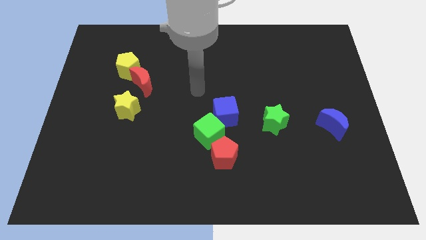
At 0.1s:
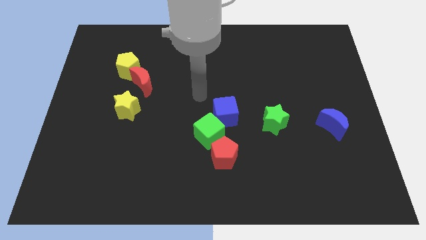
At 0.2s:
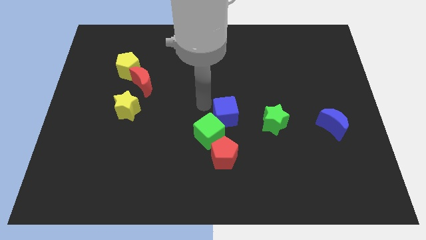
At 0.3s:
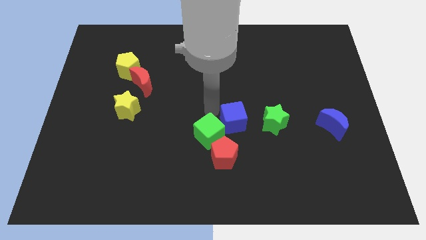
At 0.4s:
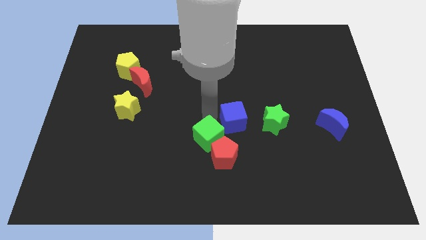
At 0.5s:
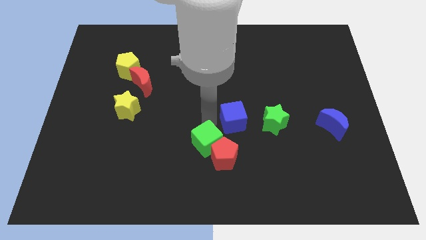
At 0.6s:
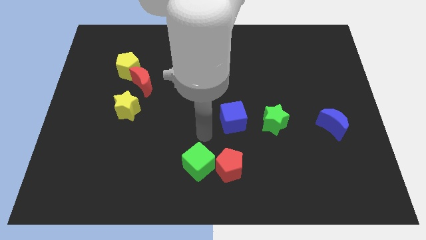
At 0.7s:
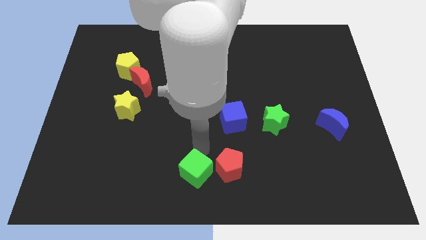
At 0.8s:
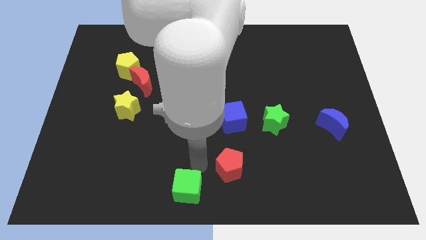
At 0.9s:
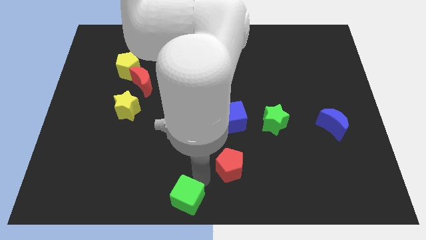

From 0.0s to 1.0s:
separate the red pentagon from the green cube

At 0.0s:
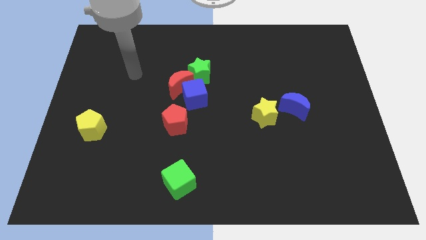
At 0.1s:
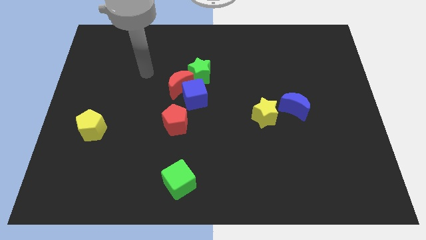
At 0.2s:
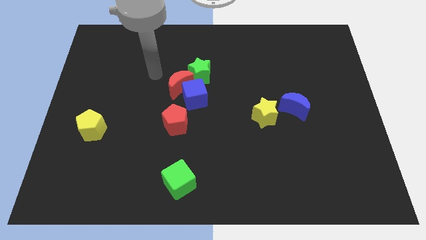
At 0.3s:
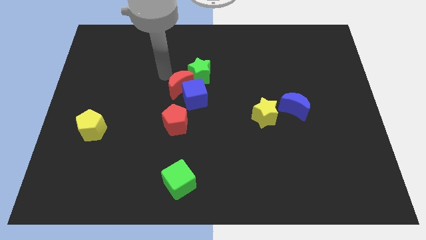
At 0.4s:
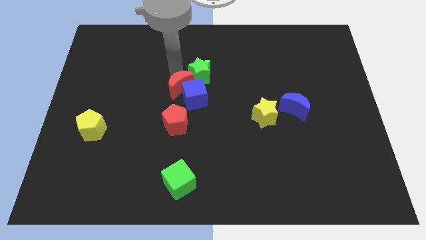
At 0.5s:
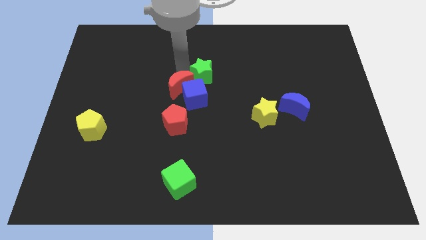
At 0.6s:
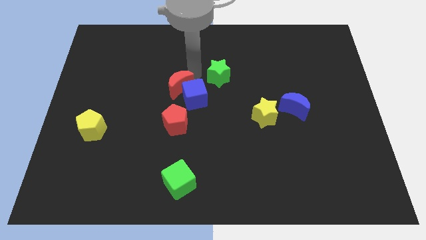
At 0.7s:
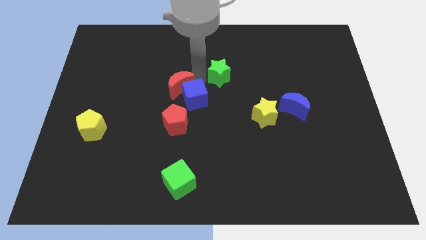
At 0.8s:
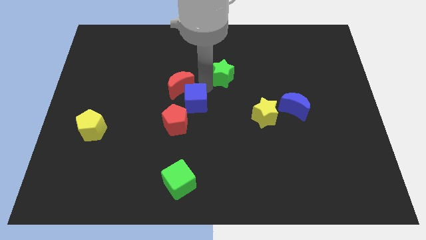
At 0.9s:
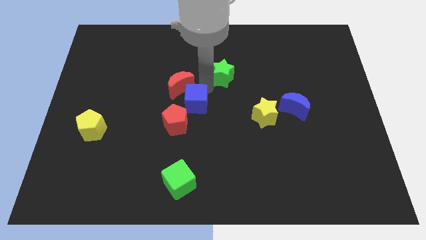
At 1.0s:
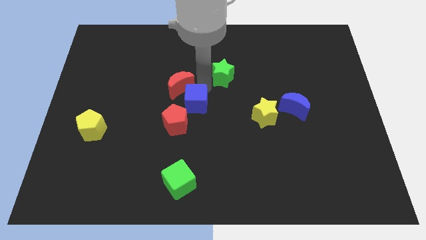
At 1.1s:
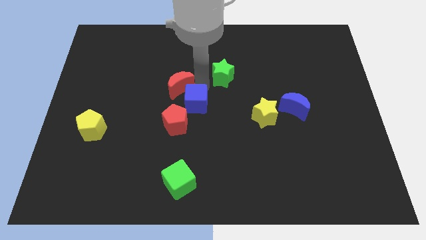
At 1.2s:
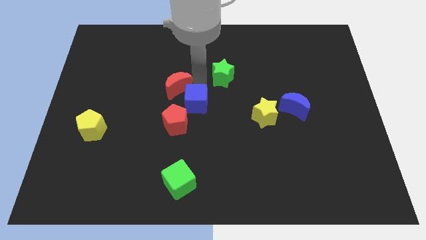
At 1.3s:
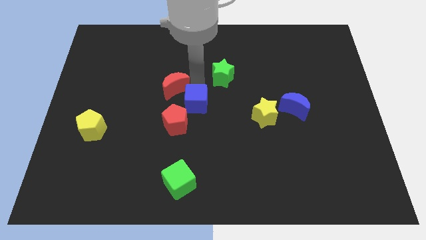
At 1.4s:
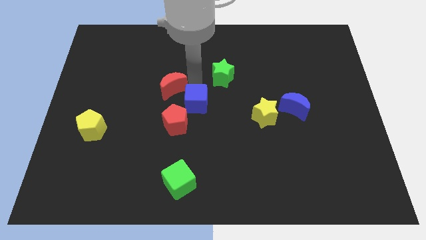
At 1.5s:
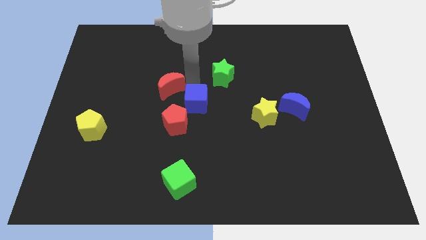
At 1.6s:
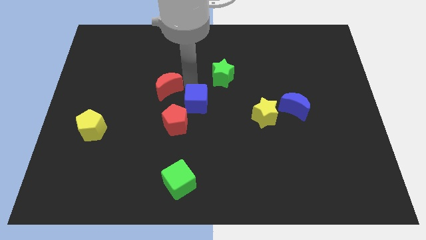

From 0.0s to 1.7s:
move the red moon away from the blue cube and green star

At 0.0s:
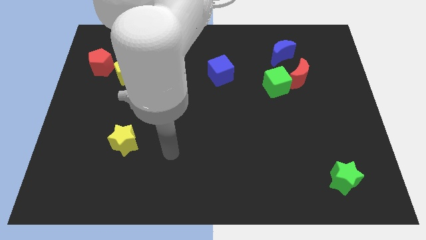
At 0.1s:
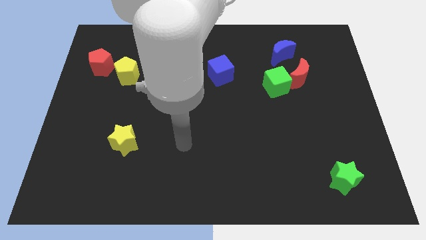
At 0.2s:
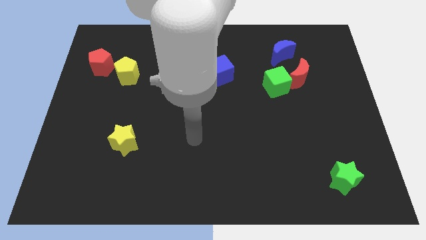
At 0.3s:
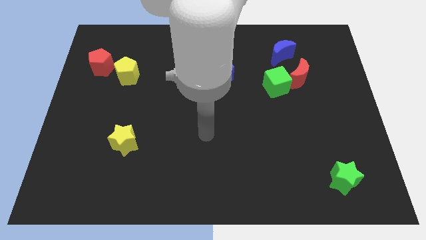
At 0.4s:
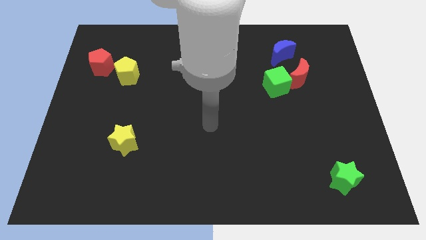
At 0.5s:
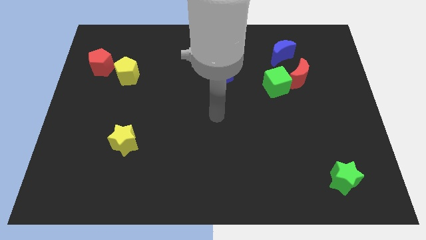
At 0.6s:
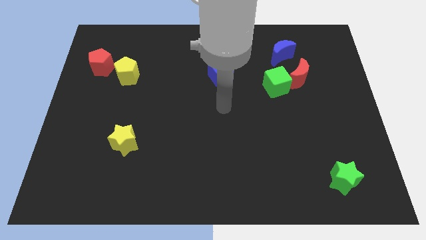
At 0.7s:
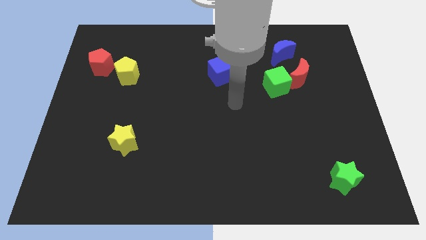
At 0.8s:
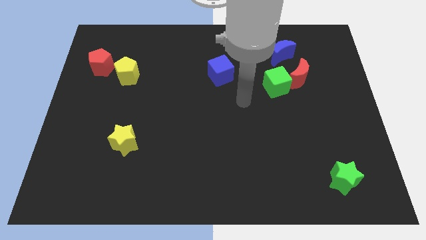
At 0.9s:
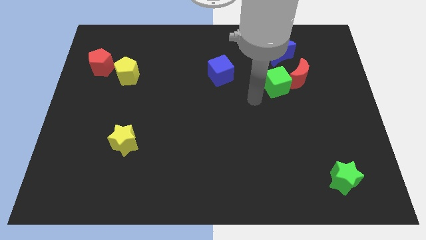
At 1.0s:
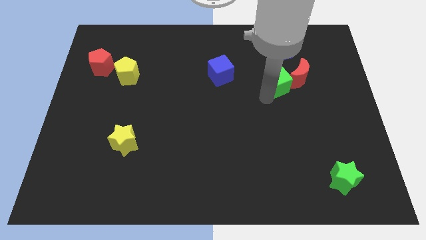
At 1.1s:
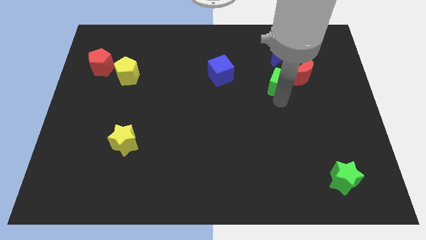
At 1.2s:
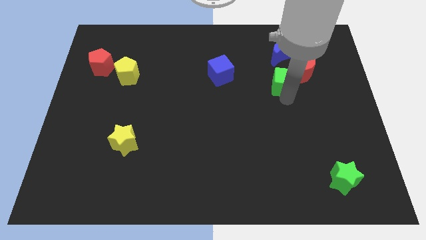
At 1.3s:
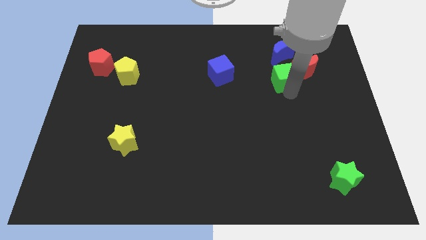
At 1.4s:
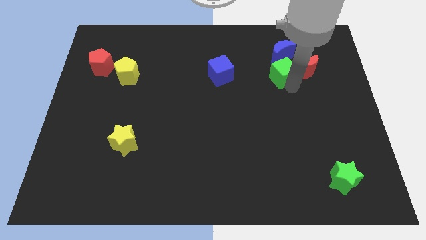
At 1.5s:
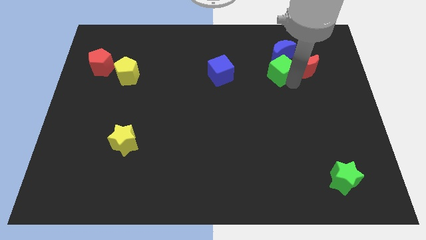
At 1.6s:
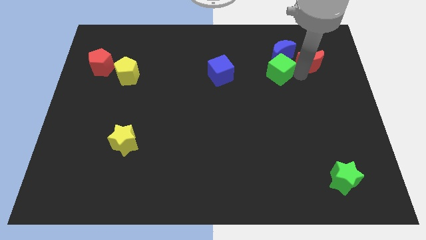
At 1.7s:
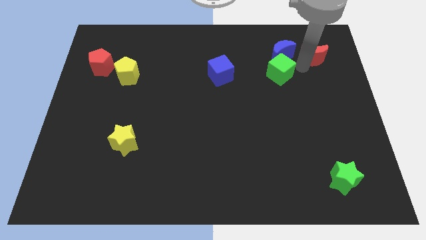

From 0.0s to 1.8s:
pull the green cube apart from the red moon

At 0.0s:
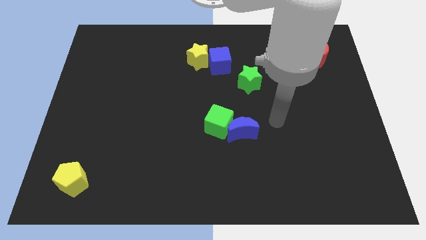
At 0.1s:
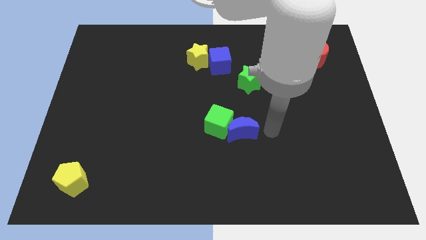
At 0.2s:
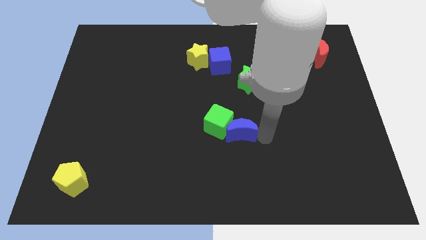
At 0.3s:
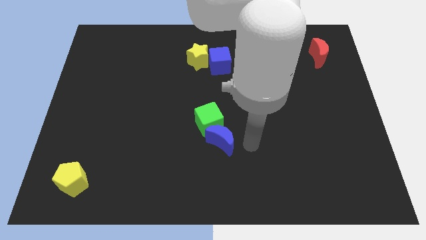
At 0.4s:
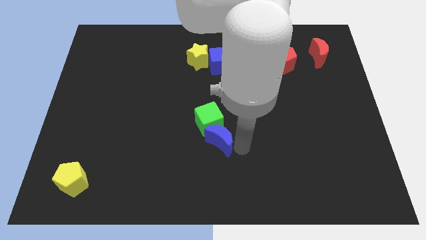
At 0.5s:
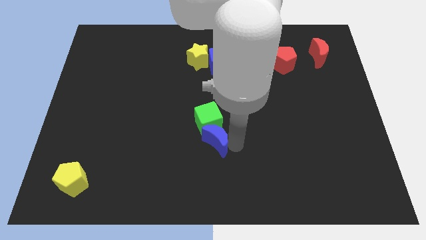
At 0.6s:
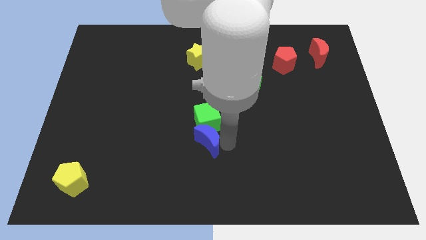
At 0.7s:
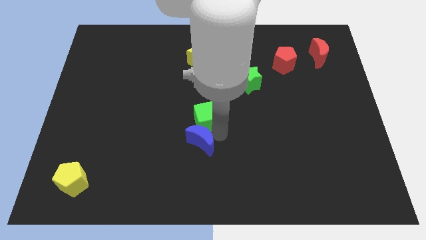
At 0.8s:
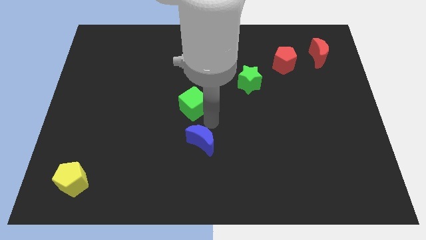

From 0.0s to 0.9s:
separate the blue moon from the green cube

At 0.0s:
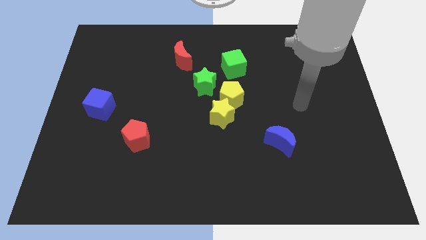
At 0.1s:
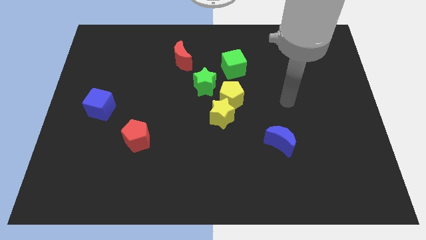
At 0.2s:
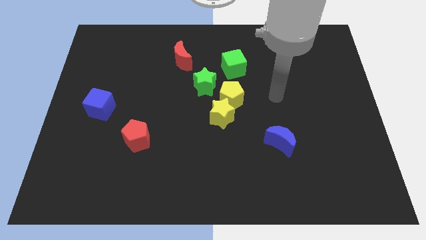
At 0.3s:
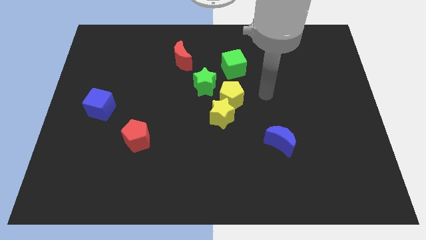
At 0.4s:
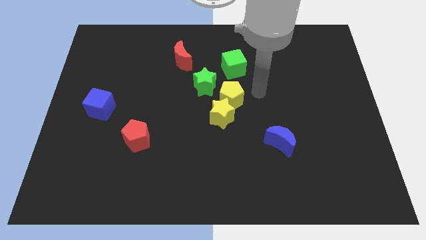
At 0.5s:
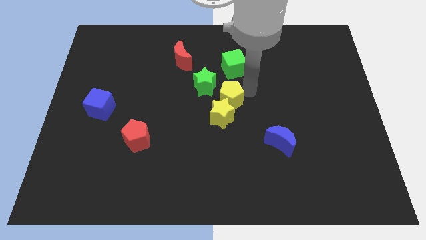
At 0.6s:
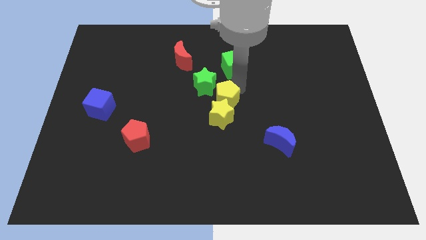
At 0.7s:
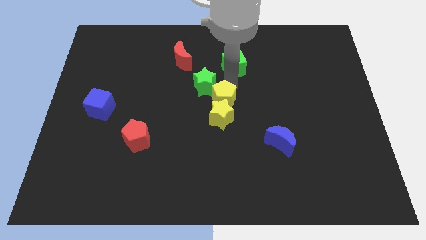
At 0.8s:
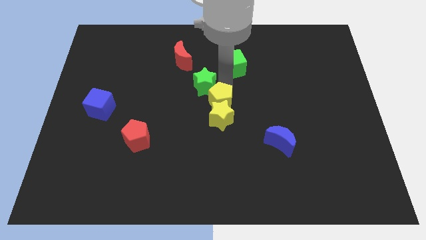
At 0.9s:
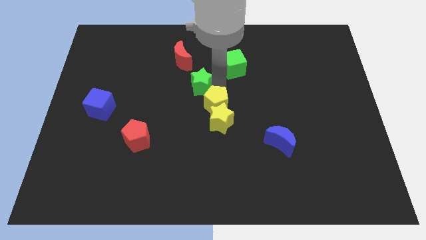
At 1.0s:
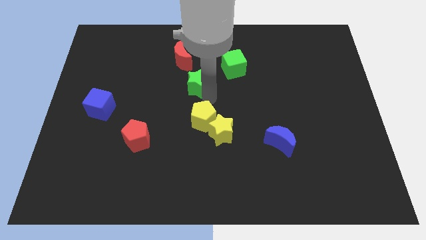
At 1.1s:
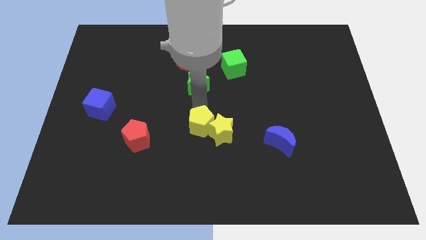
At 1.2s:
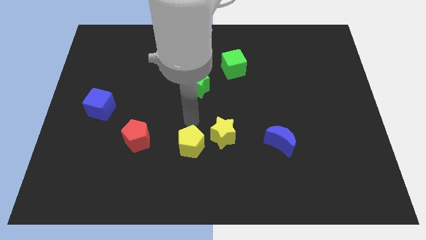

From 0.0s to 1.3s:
pull the yellow pentagon apart from the yellow star and green star

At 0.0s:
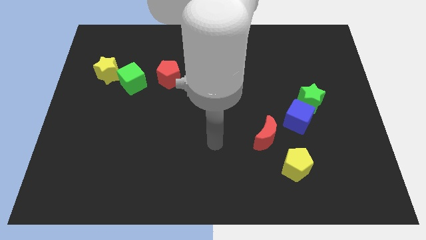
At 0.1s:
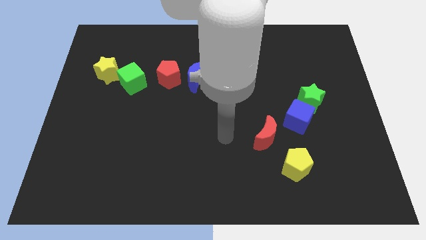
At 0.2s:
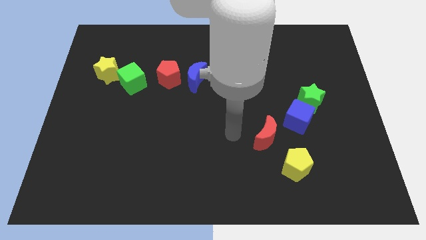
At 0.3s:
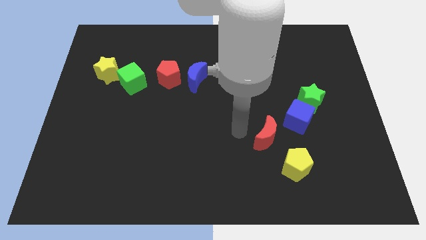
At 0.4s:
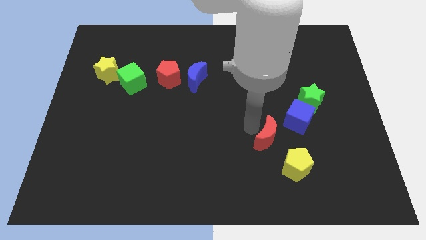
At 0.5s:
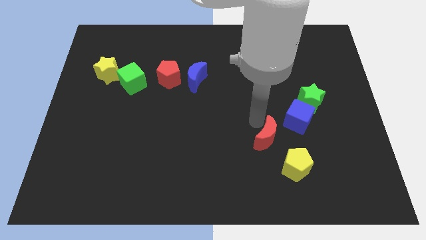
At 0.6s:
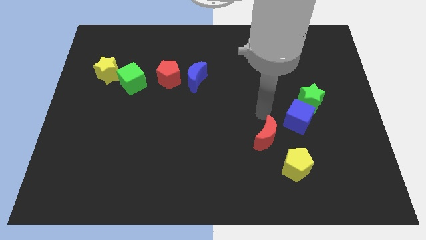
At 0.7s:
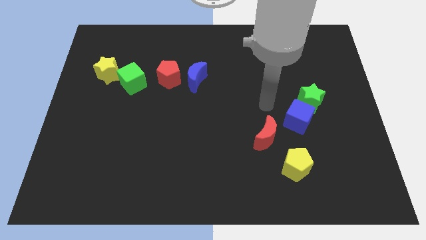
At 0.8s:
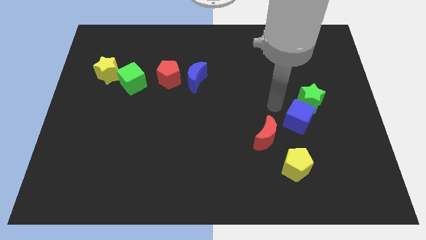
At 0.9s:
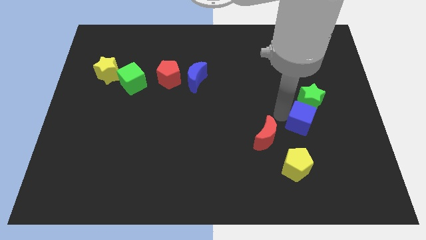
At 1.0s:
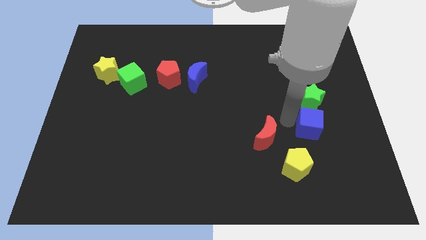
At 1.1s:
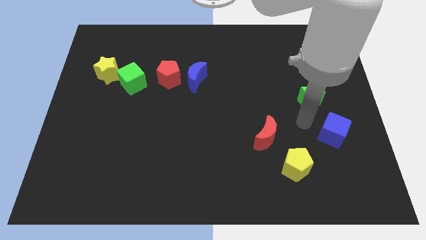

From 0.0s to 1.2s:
pull the green star apart from the blue cube

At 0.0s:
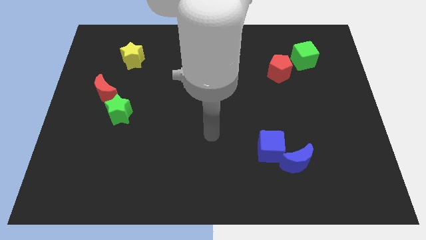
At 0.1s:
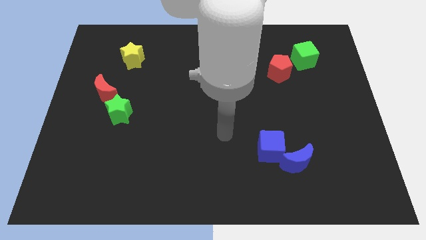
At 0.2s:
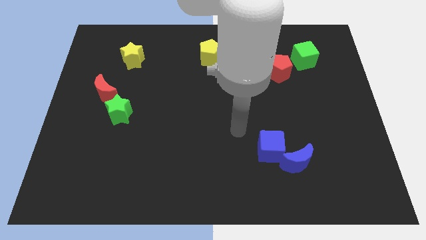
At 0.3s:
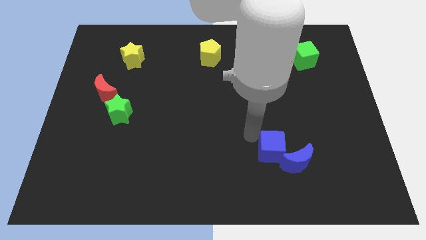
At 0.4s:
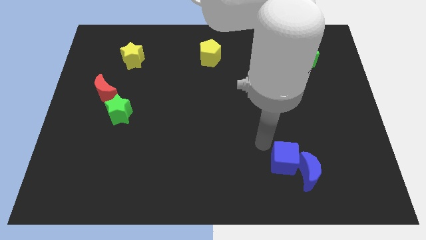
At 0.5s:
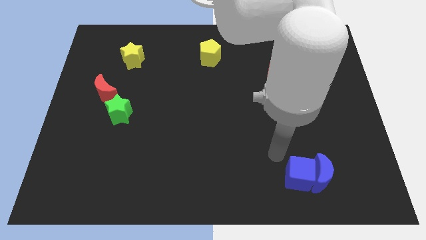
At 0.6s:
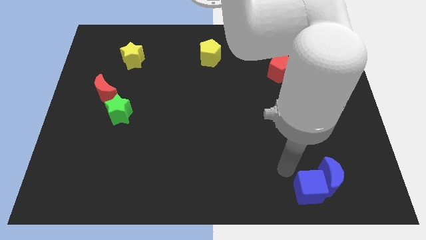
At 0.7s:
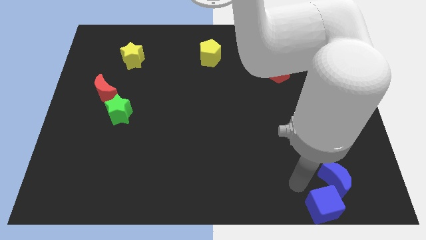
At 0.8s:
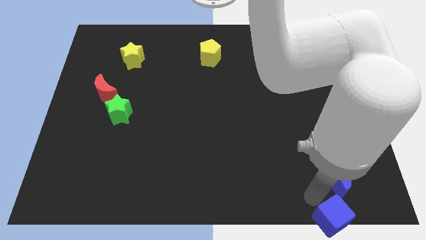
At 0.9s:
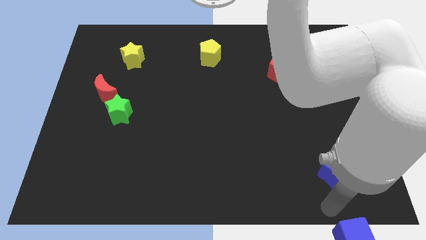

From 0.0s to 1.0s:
move the blue moon away from the blue cube

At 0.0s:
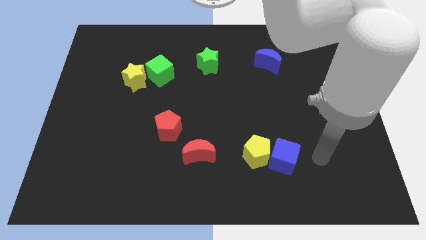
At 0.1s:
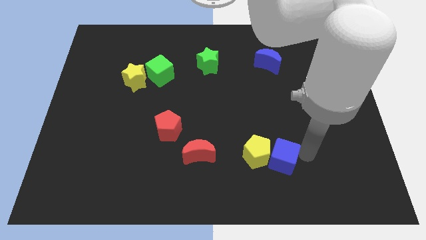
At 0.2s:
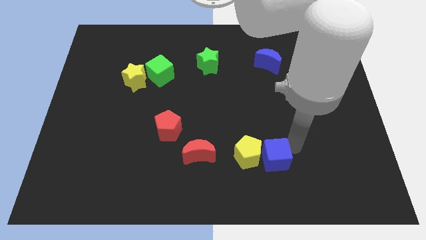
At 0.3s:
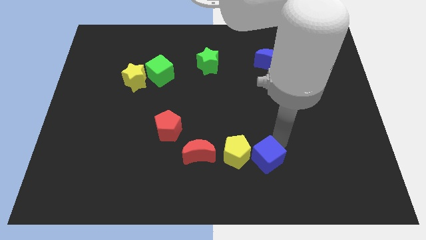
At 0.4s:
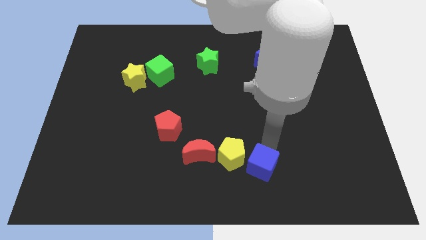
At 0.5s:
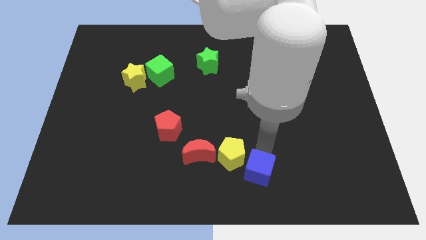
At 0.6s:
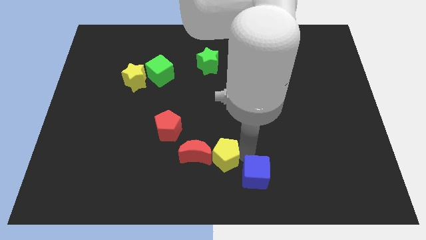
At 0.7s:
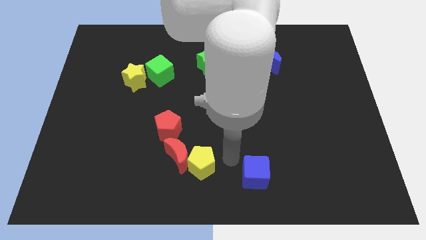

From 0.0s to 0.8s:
separate the blue cube from the yellow pentagon
